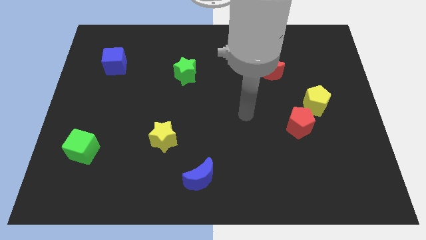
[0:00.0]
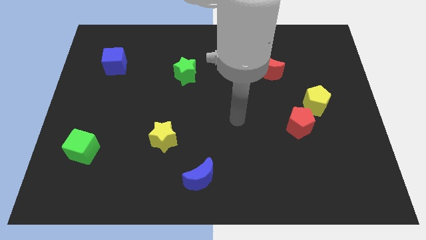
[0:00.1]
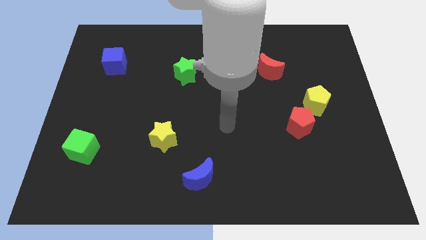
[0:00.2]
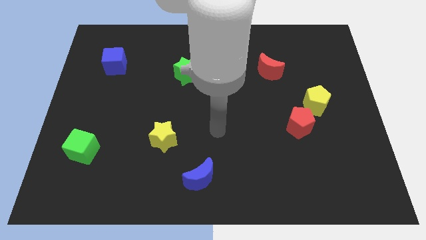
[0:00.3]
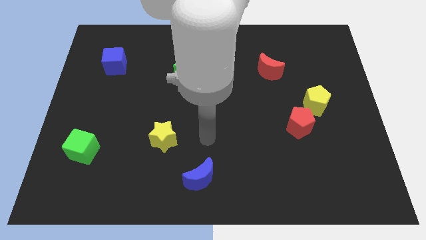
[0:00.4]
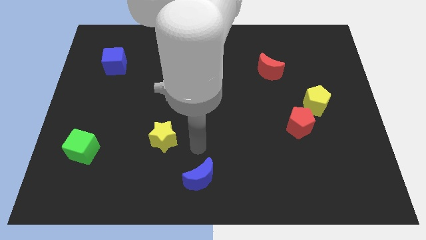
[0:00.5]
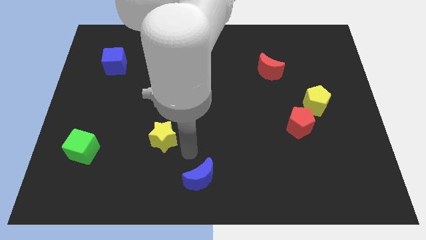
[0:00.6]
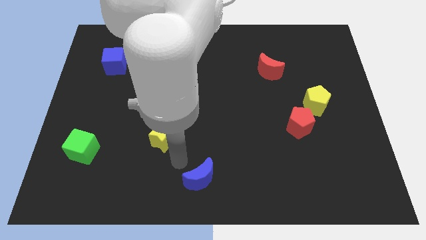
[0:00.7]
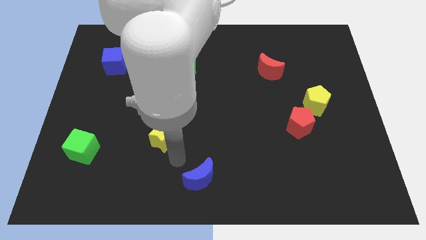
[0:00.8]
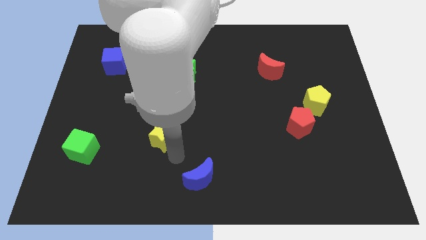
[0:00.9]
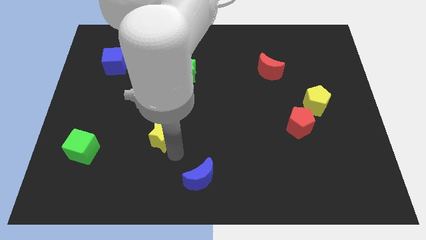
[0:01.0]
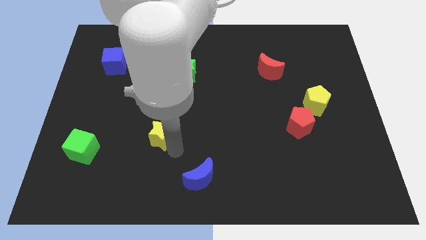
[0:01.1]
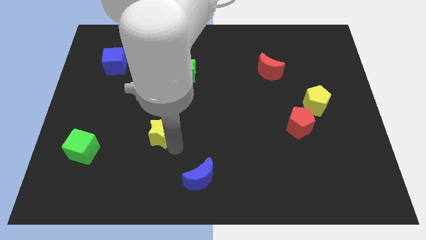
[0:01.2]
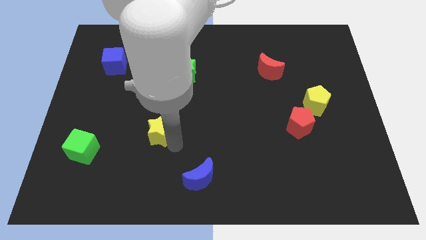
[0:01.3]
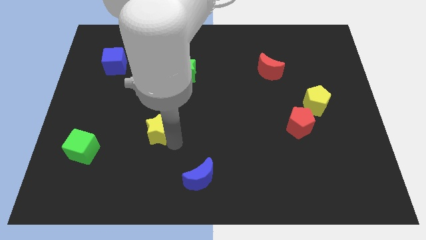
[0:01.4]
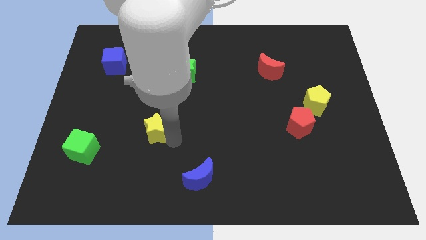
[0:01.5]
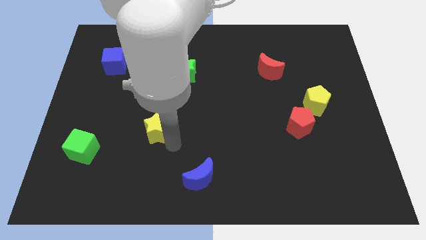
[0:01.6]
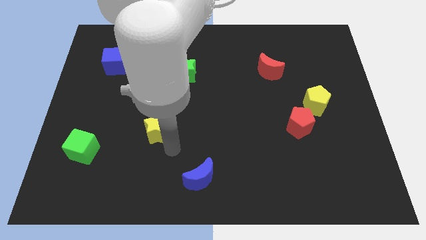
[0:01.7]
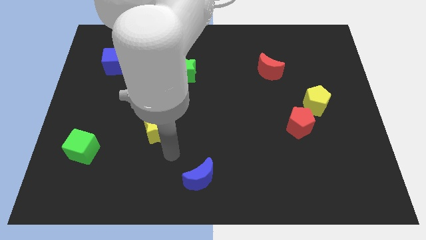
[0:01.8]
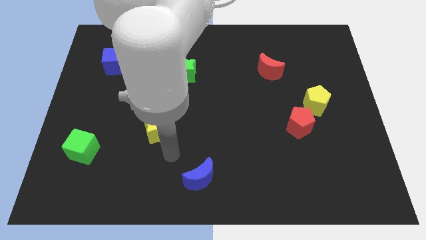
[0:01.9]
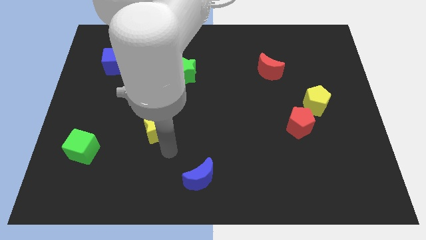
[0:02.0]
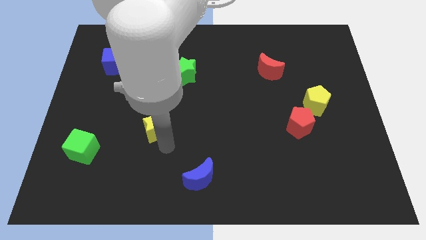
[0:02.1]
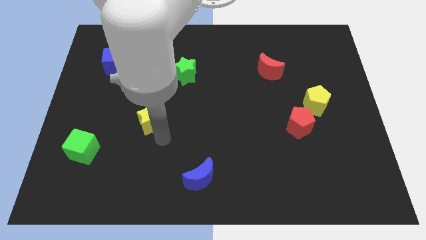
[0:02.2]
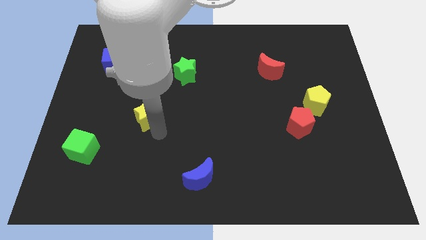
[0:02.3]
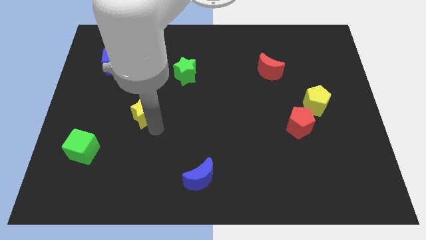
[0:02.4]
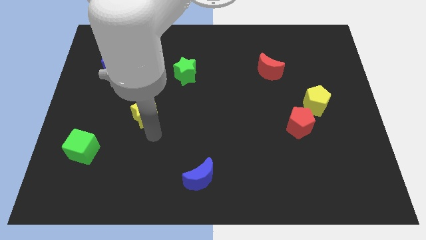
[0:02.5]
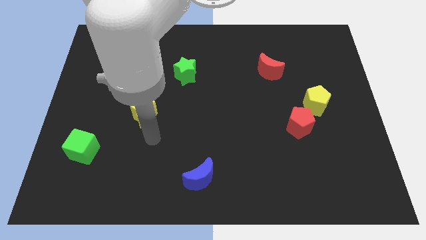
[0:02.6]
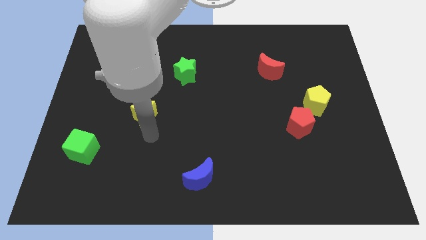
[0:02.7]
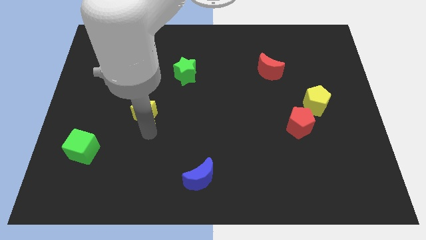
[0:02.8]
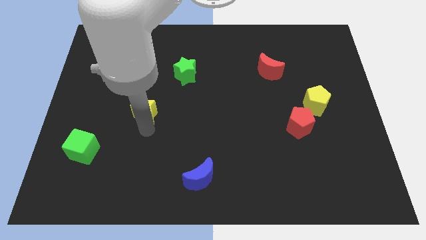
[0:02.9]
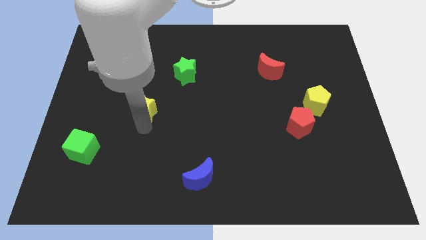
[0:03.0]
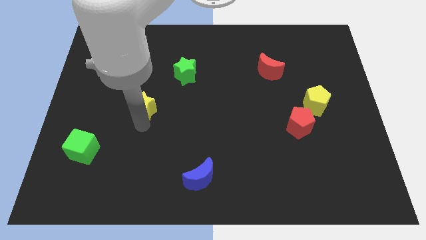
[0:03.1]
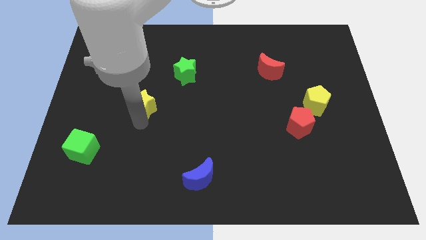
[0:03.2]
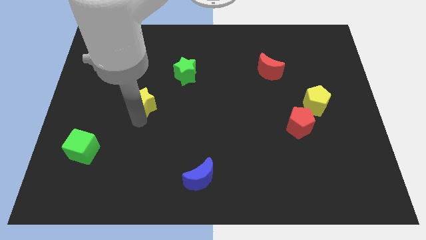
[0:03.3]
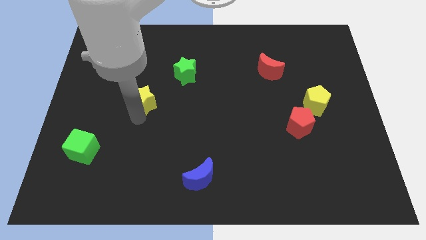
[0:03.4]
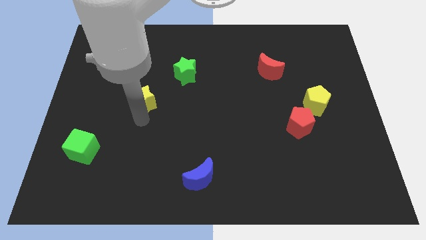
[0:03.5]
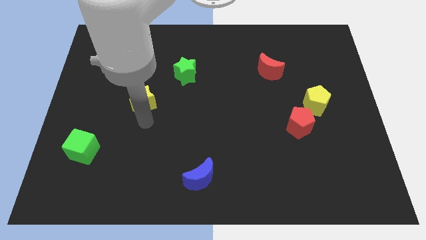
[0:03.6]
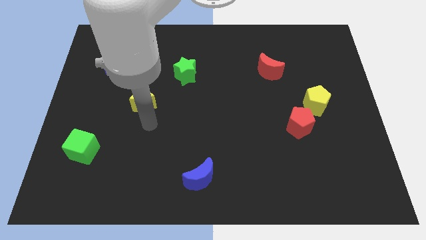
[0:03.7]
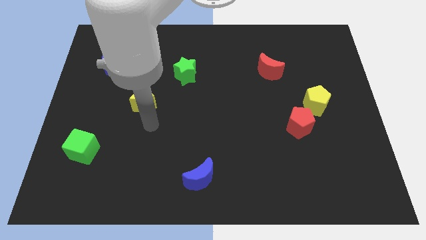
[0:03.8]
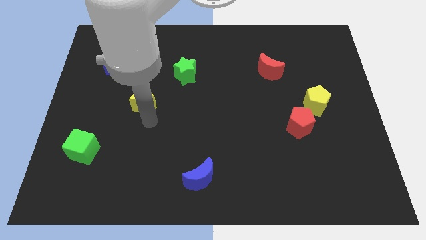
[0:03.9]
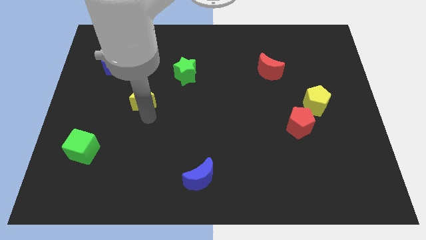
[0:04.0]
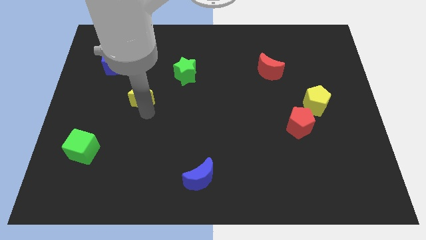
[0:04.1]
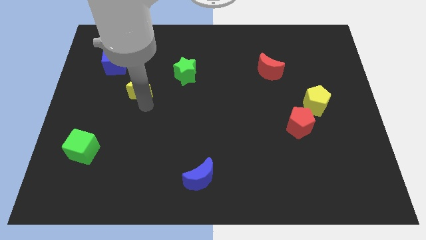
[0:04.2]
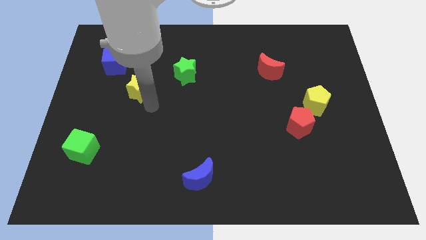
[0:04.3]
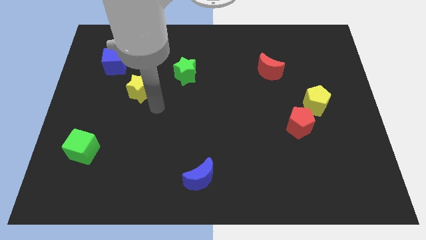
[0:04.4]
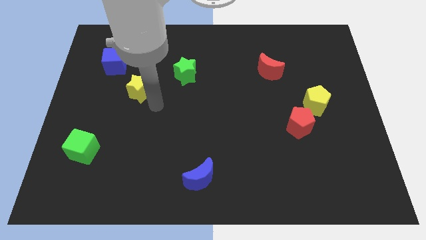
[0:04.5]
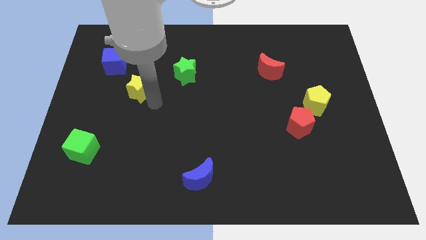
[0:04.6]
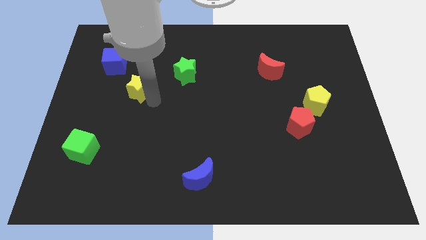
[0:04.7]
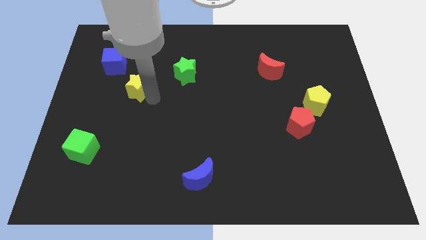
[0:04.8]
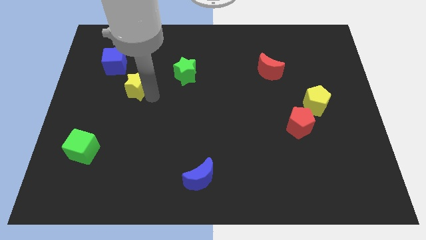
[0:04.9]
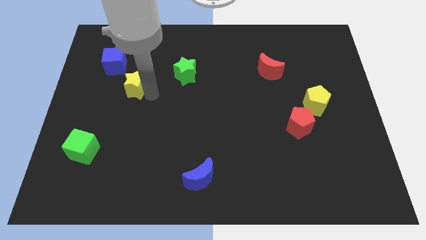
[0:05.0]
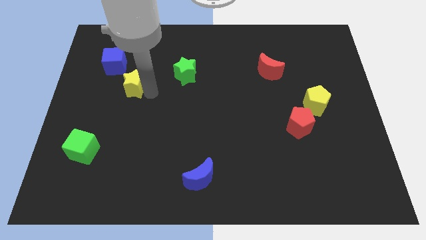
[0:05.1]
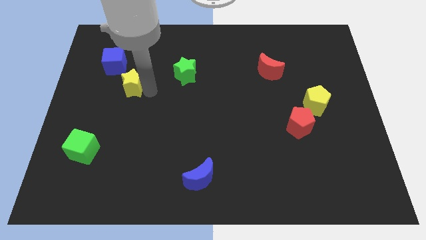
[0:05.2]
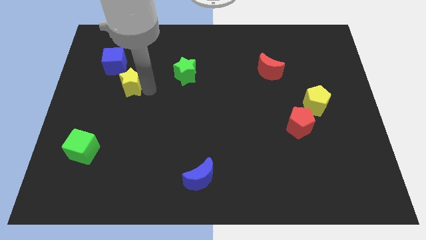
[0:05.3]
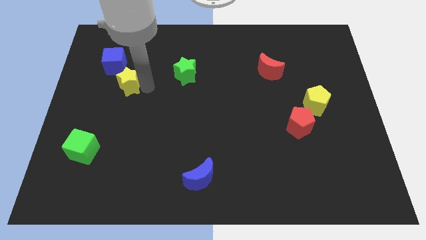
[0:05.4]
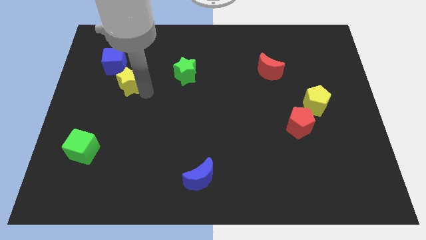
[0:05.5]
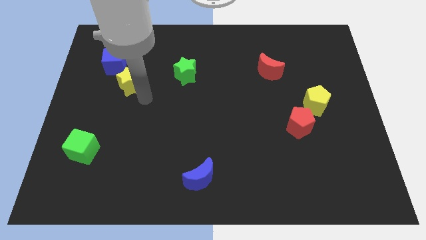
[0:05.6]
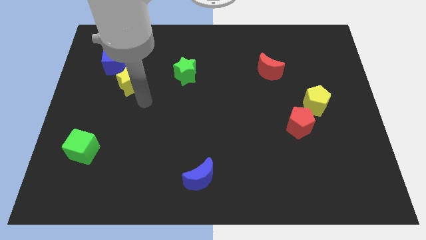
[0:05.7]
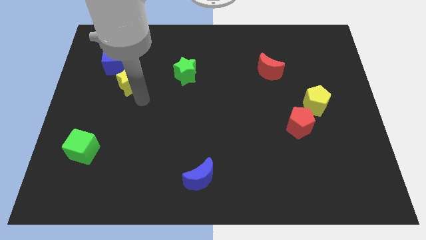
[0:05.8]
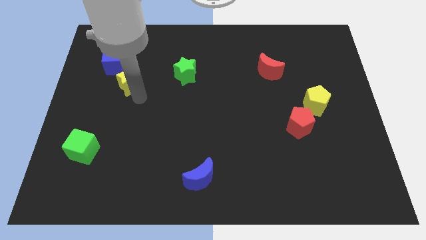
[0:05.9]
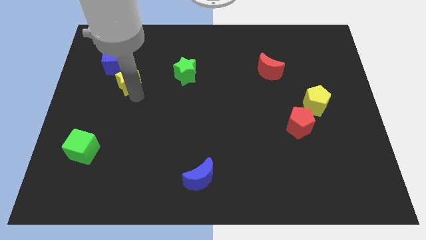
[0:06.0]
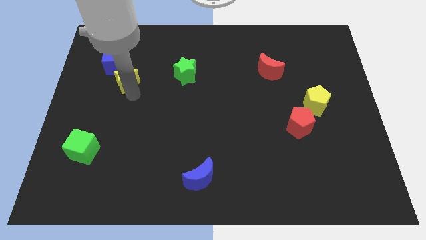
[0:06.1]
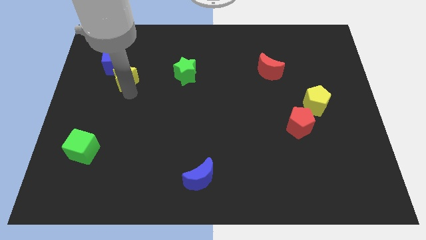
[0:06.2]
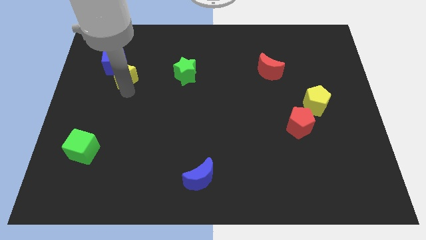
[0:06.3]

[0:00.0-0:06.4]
put the yellow star next to the blue cube

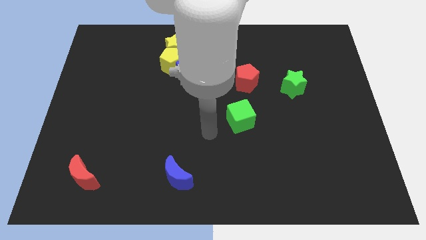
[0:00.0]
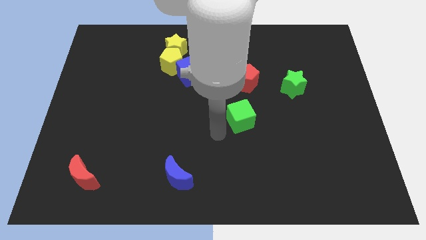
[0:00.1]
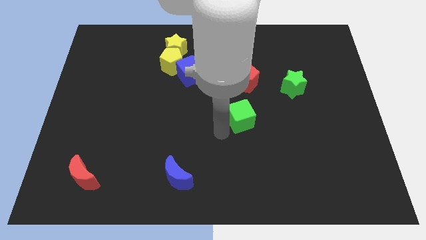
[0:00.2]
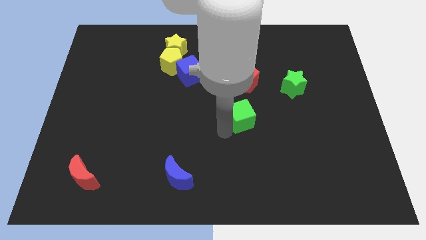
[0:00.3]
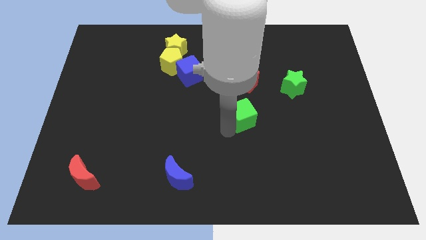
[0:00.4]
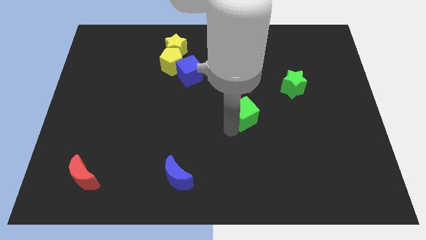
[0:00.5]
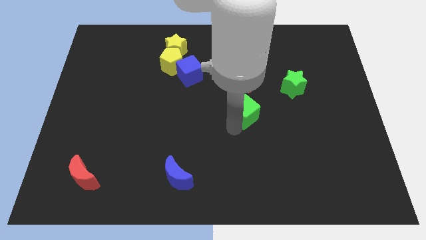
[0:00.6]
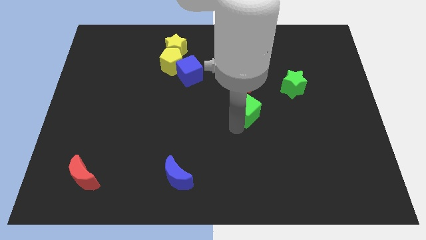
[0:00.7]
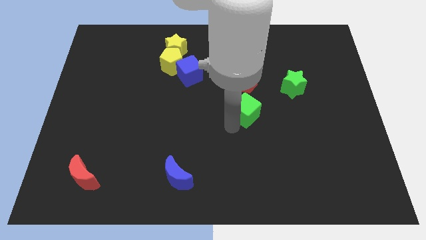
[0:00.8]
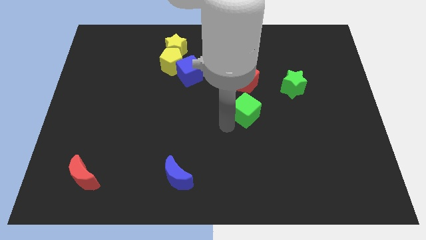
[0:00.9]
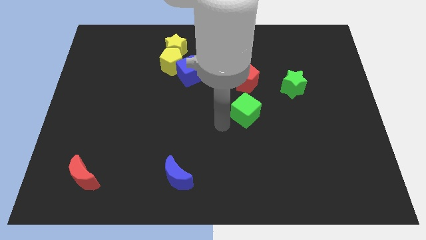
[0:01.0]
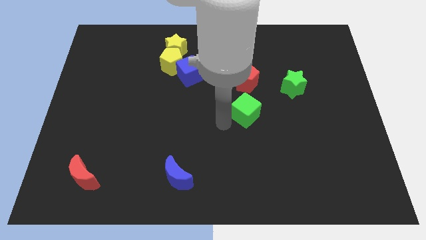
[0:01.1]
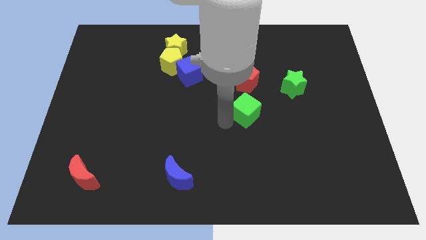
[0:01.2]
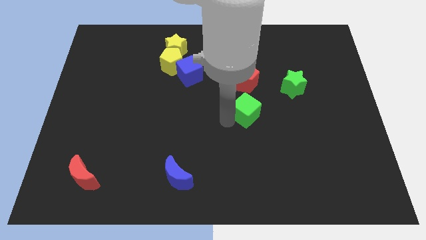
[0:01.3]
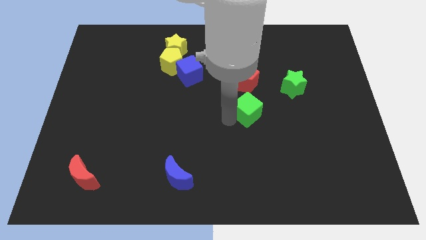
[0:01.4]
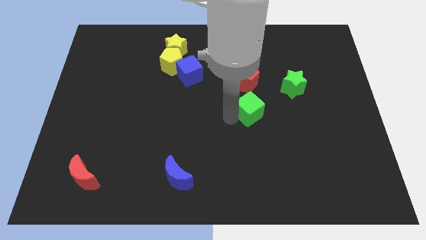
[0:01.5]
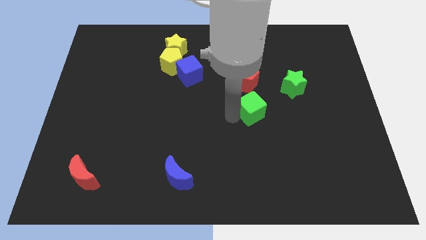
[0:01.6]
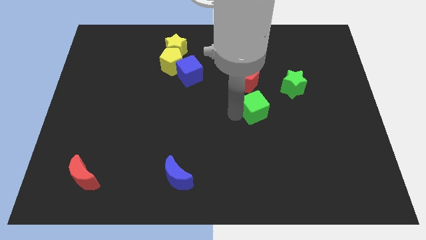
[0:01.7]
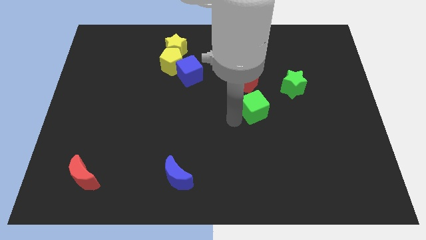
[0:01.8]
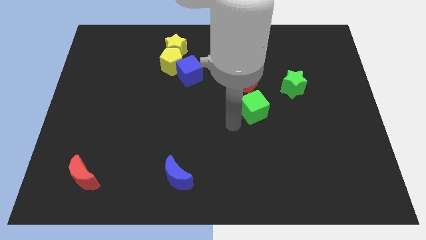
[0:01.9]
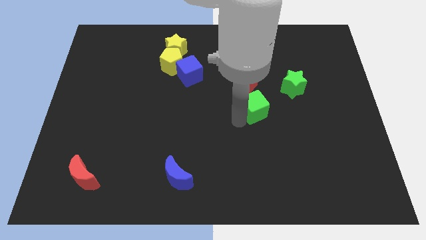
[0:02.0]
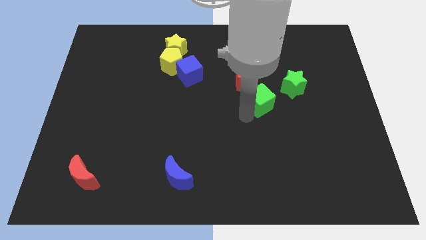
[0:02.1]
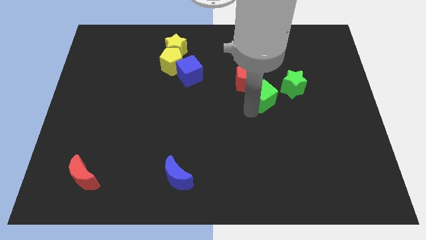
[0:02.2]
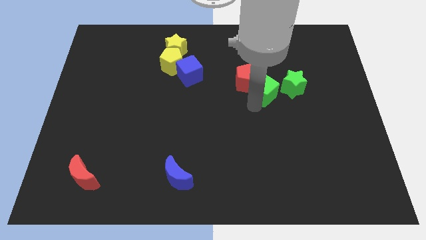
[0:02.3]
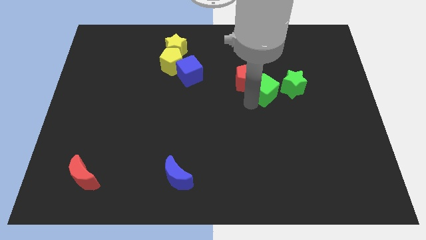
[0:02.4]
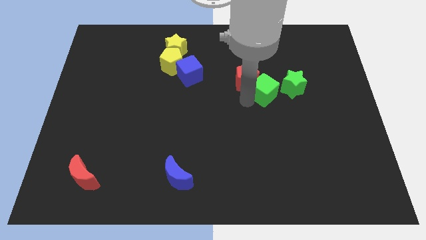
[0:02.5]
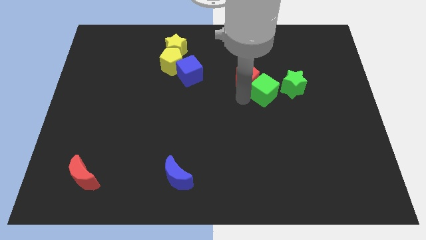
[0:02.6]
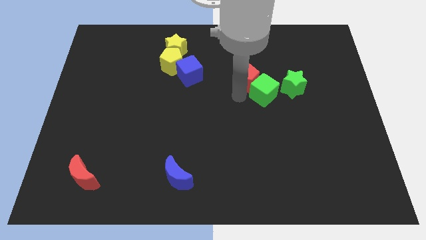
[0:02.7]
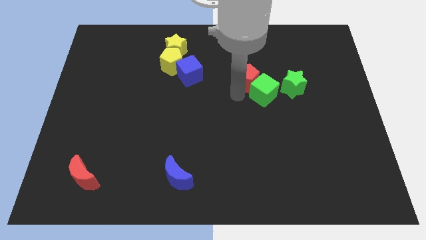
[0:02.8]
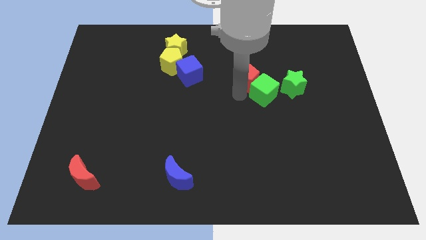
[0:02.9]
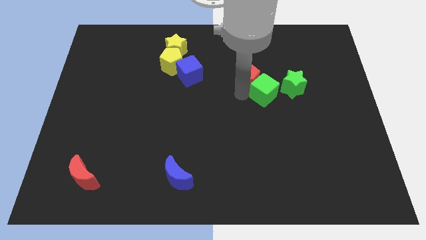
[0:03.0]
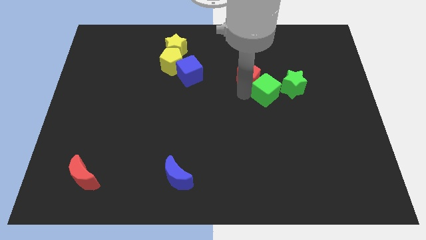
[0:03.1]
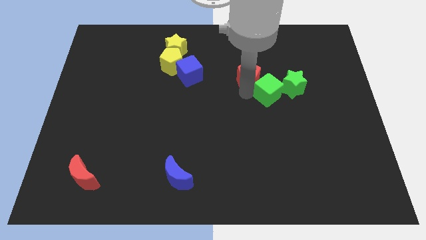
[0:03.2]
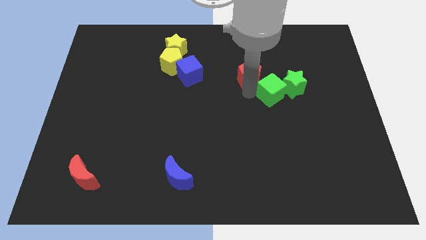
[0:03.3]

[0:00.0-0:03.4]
put the green cube close to the green star
